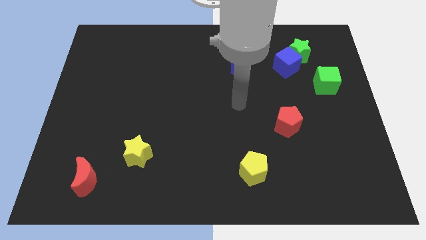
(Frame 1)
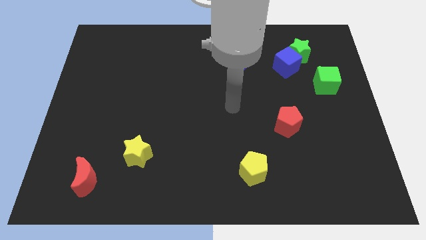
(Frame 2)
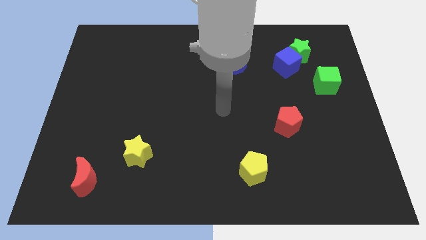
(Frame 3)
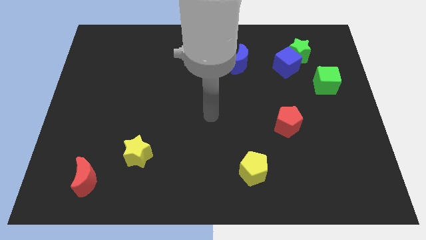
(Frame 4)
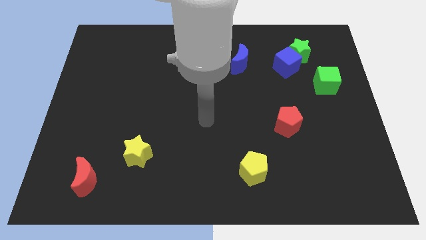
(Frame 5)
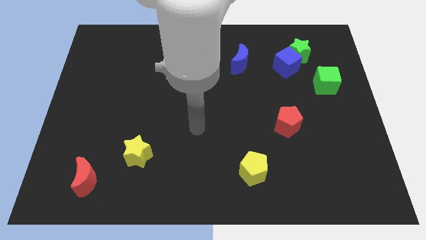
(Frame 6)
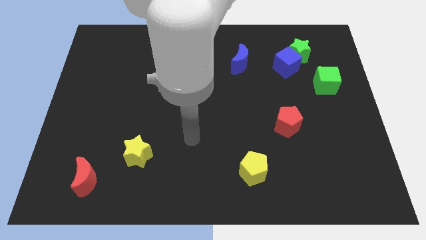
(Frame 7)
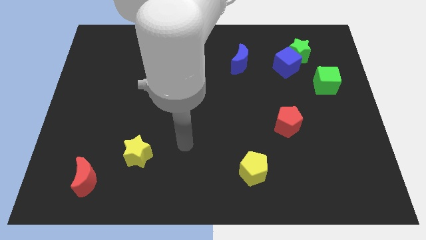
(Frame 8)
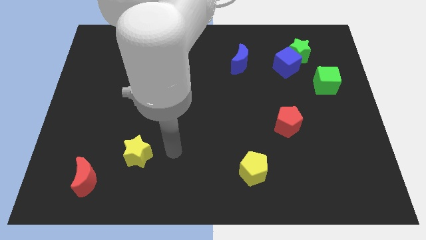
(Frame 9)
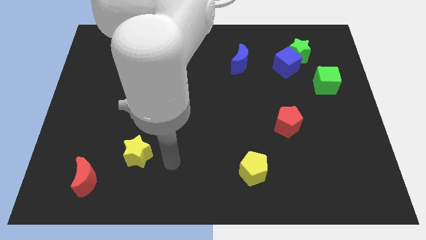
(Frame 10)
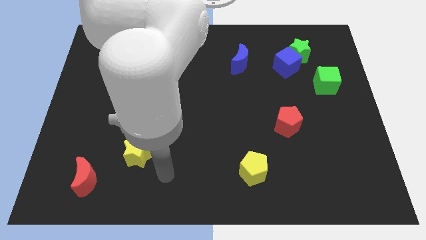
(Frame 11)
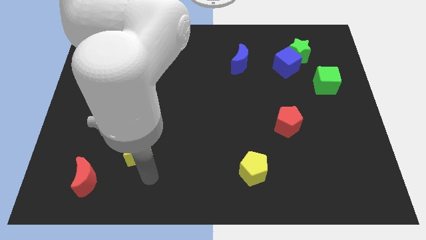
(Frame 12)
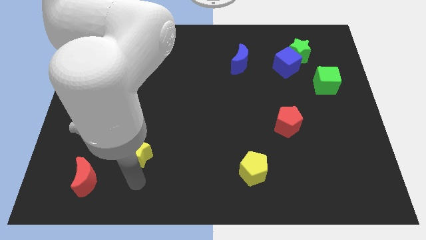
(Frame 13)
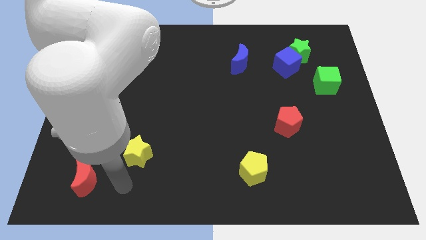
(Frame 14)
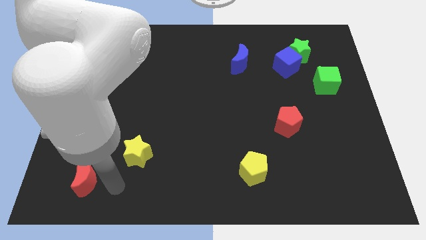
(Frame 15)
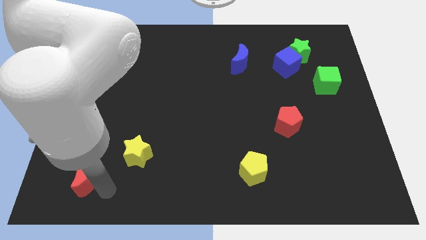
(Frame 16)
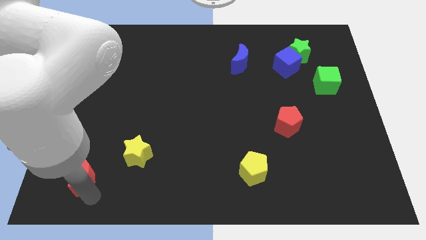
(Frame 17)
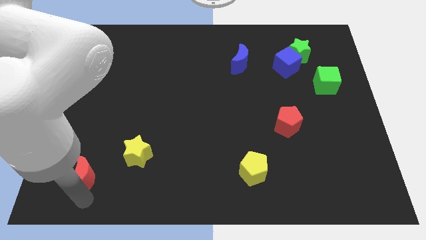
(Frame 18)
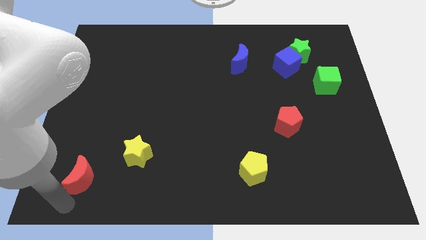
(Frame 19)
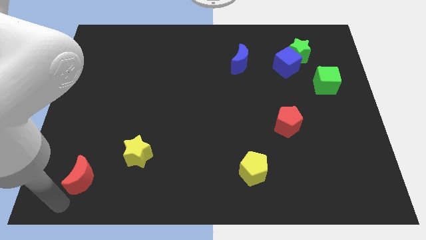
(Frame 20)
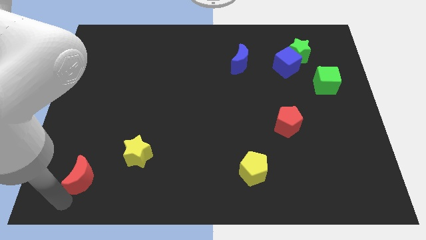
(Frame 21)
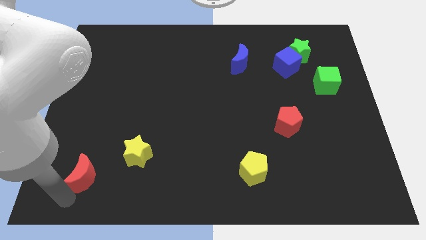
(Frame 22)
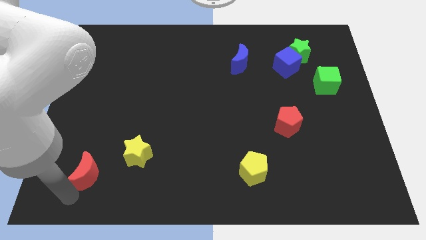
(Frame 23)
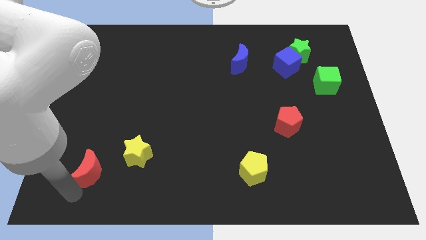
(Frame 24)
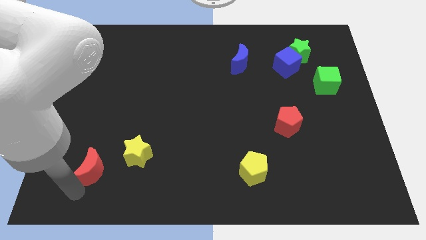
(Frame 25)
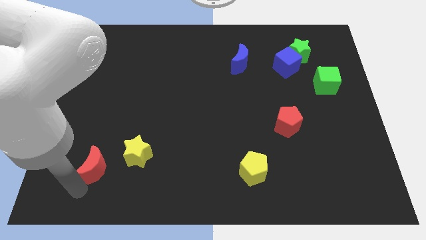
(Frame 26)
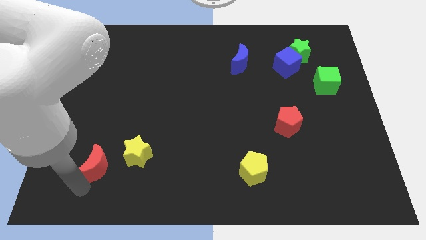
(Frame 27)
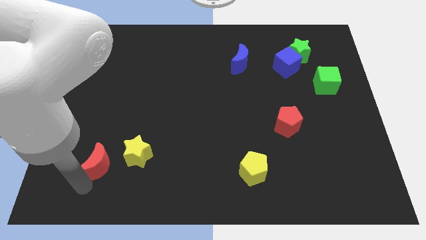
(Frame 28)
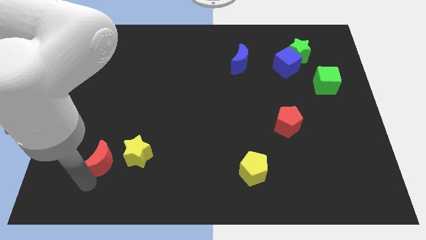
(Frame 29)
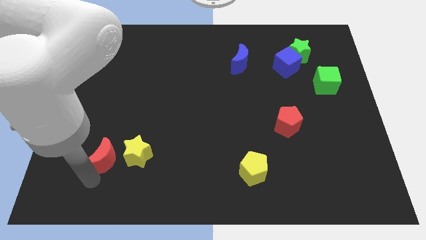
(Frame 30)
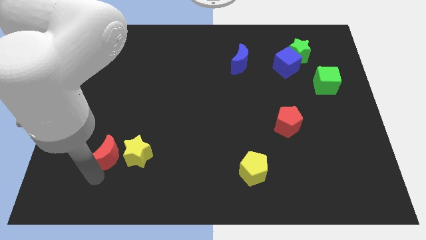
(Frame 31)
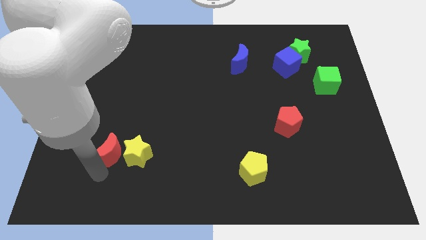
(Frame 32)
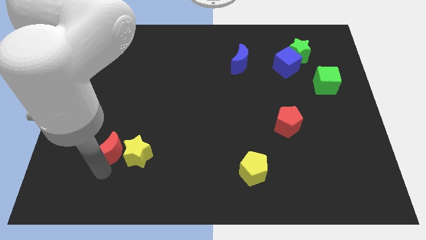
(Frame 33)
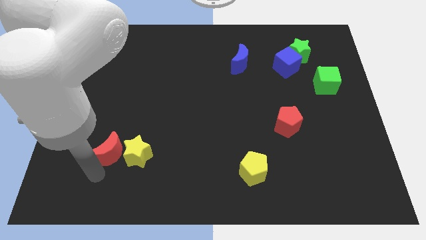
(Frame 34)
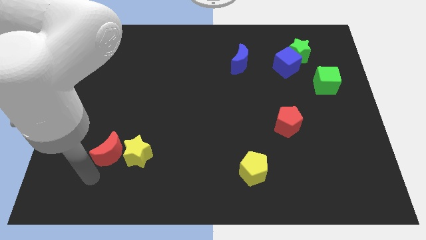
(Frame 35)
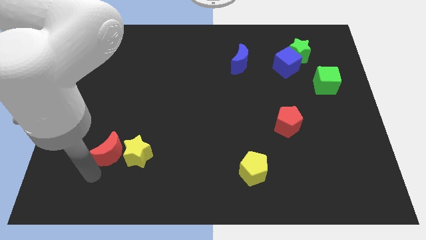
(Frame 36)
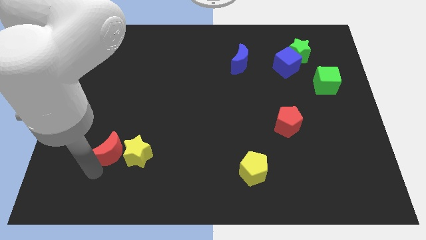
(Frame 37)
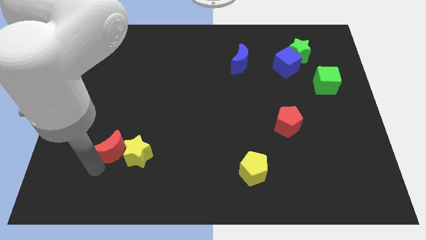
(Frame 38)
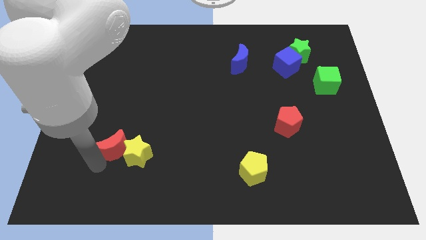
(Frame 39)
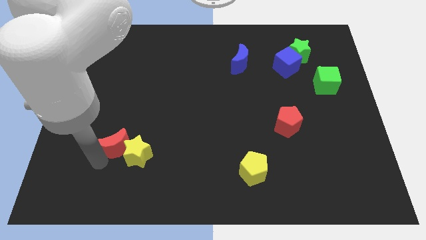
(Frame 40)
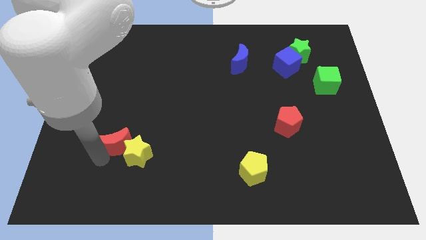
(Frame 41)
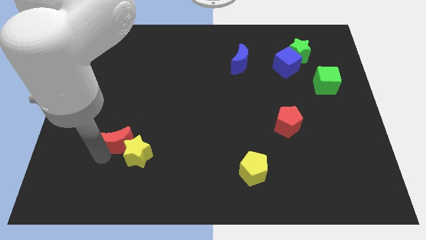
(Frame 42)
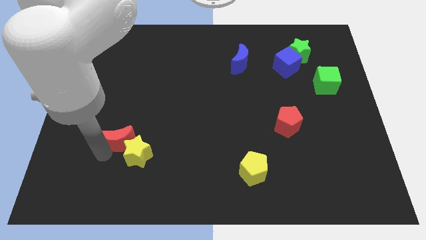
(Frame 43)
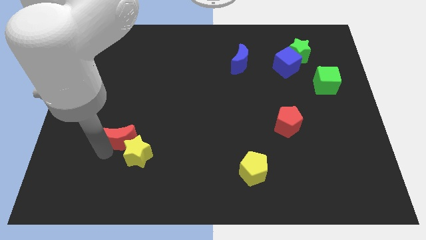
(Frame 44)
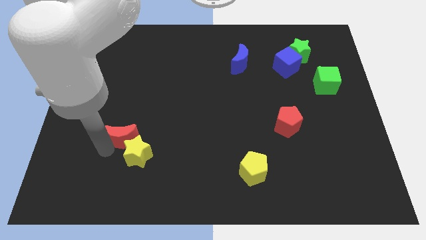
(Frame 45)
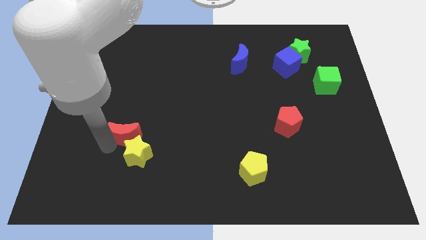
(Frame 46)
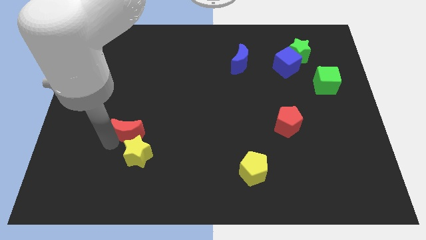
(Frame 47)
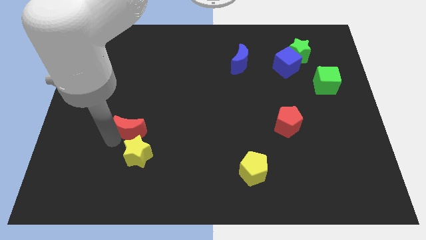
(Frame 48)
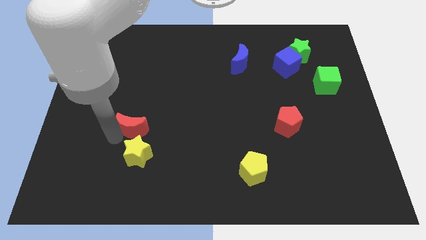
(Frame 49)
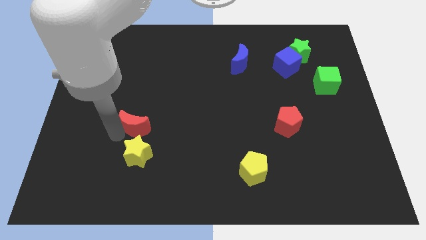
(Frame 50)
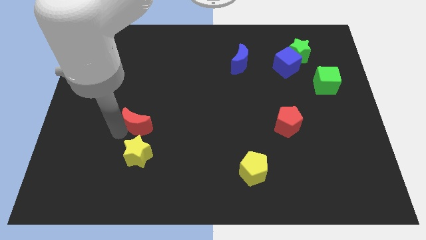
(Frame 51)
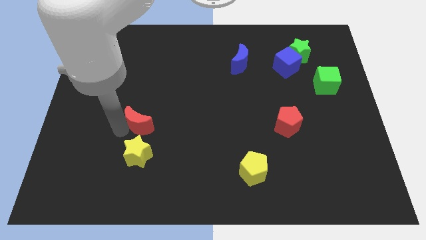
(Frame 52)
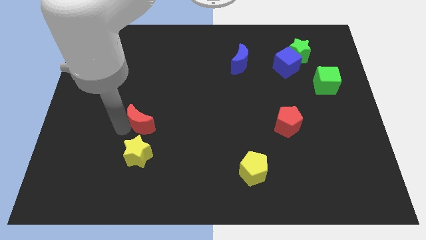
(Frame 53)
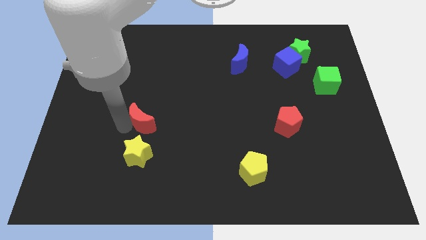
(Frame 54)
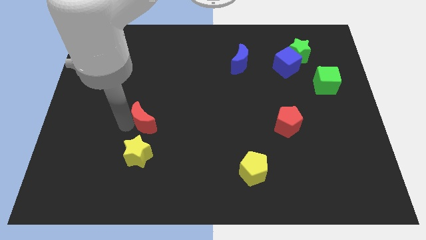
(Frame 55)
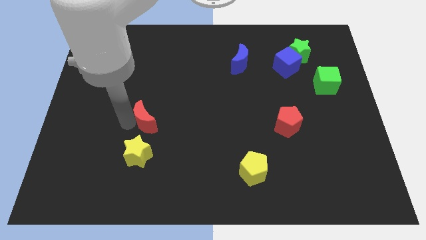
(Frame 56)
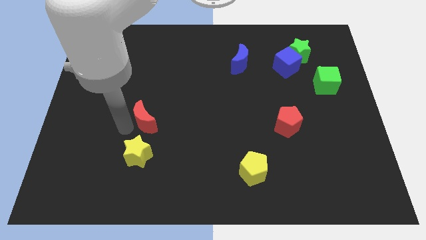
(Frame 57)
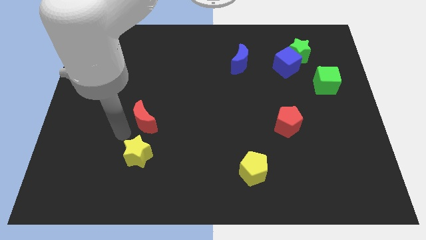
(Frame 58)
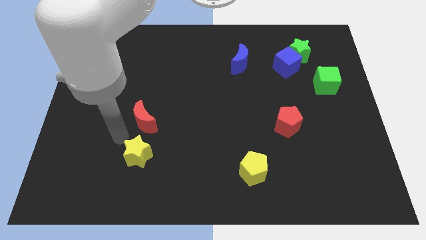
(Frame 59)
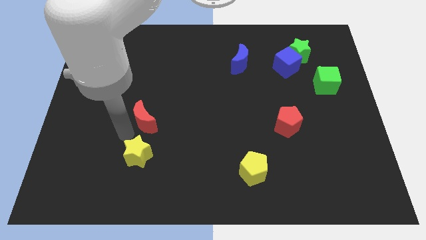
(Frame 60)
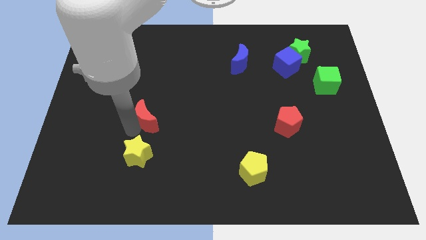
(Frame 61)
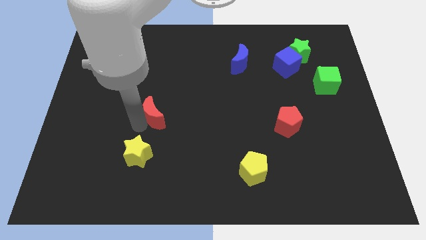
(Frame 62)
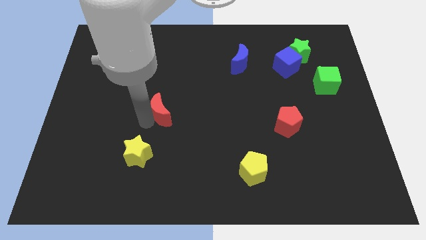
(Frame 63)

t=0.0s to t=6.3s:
move the red moon diagonally upwards and right

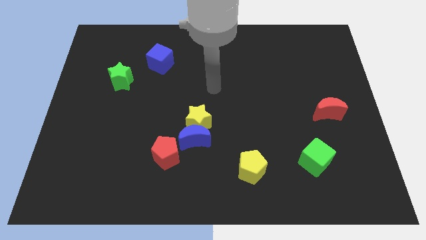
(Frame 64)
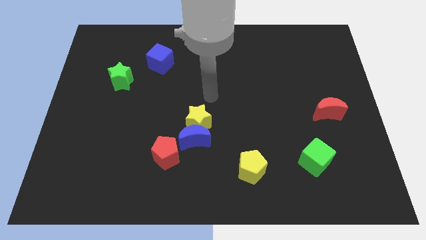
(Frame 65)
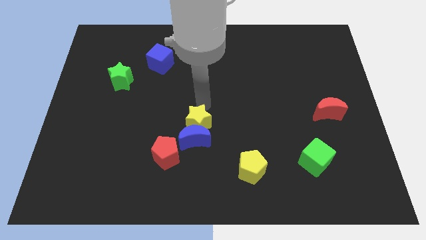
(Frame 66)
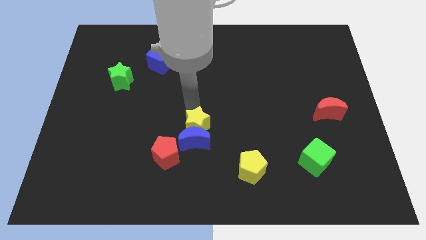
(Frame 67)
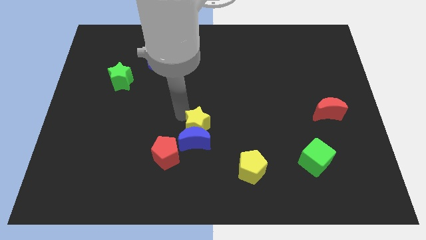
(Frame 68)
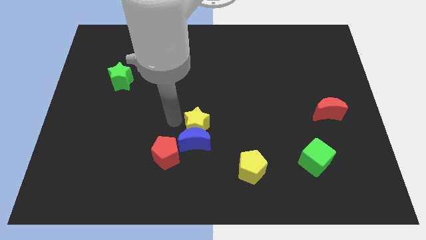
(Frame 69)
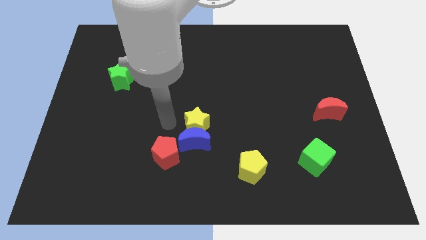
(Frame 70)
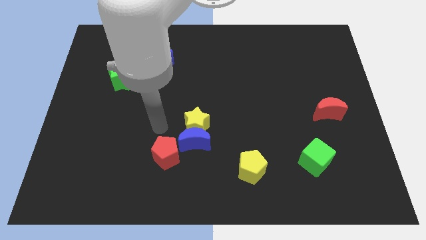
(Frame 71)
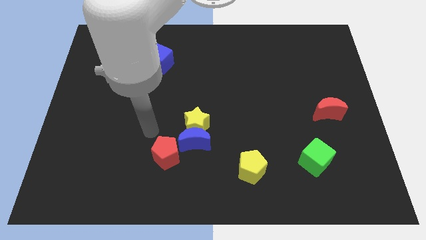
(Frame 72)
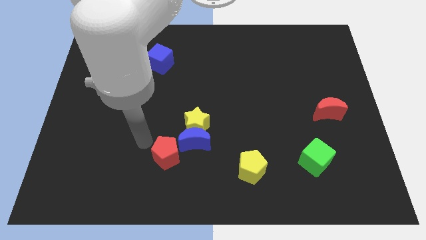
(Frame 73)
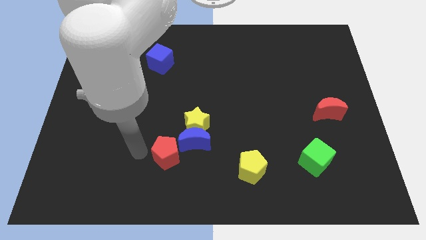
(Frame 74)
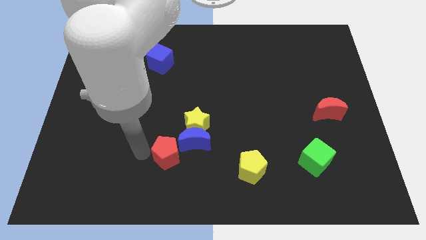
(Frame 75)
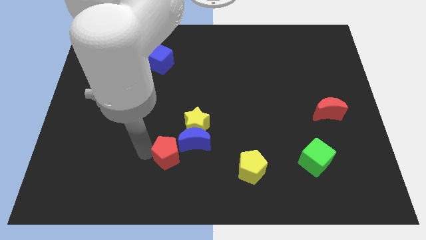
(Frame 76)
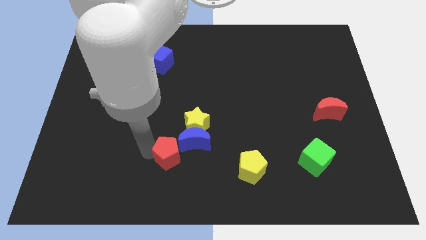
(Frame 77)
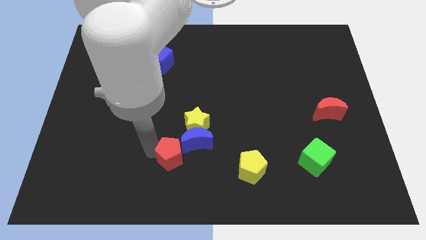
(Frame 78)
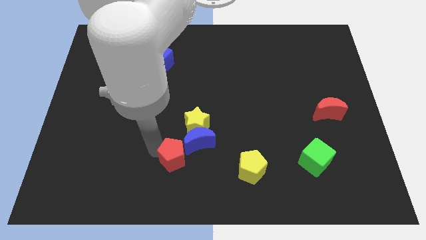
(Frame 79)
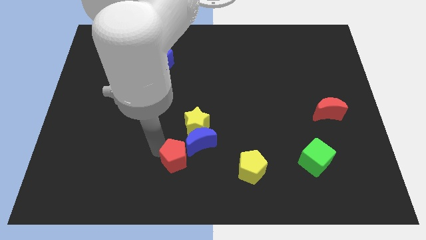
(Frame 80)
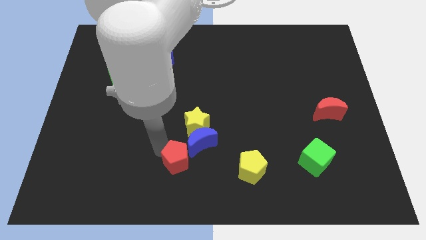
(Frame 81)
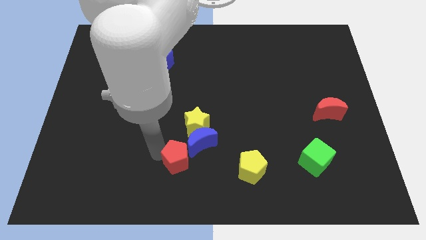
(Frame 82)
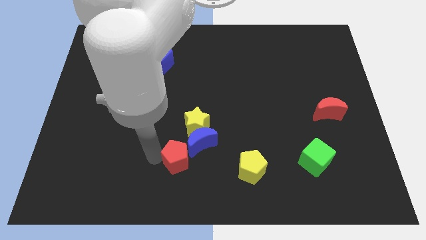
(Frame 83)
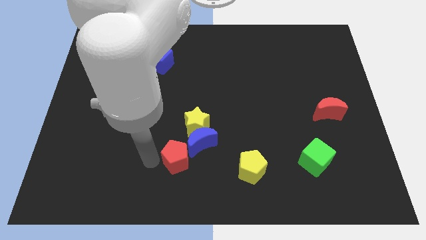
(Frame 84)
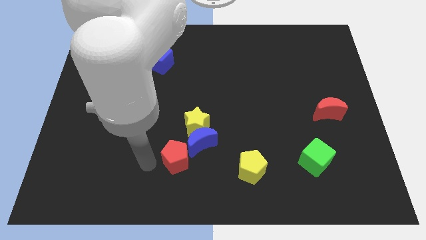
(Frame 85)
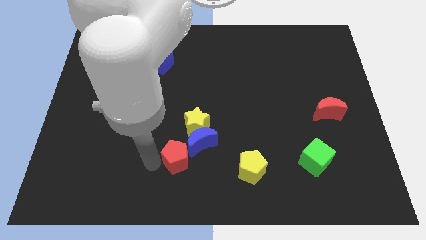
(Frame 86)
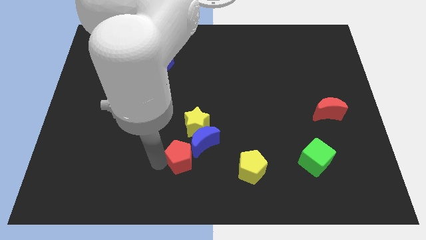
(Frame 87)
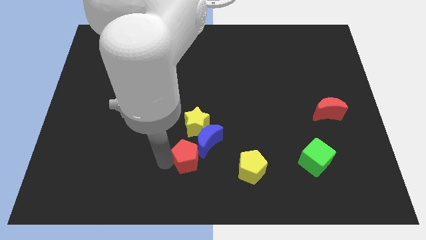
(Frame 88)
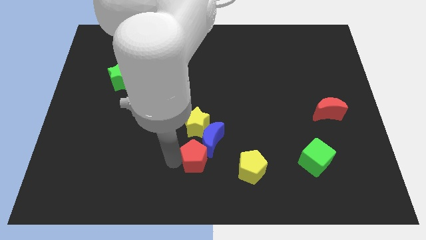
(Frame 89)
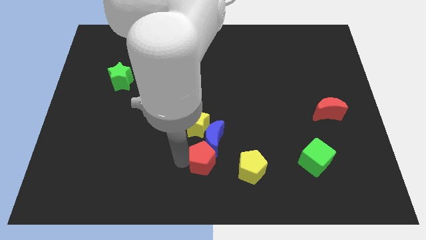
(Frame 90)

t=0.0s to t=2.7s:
move the red pentagon right somewhat
